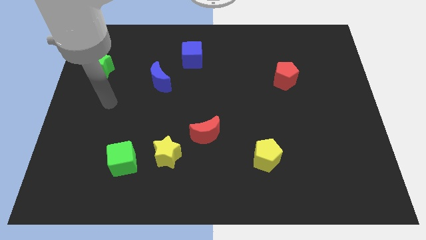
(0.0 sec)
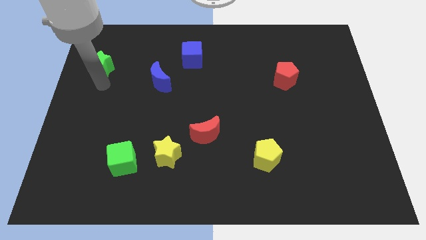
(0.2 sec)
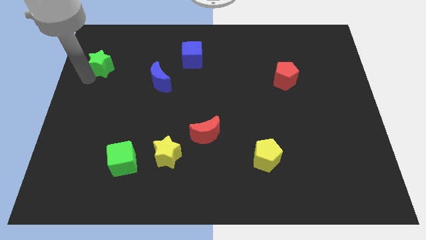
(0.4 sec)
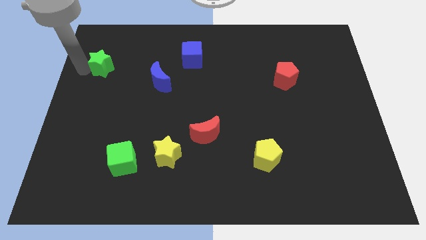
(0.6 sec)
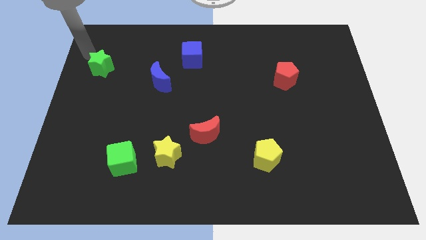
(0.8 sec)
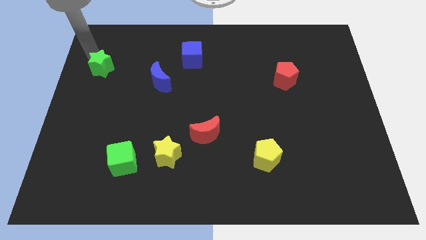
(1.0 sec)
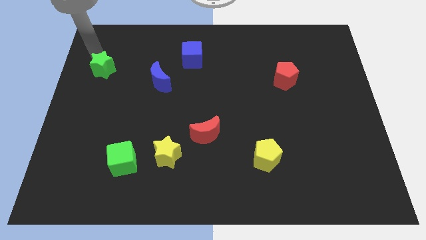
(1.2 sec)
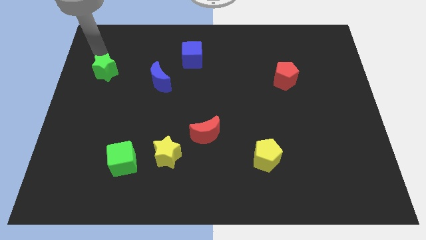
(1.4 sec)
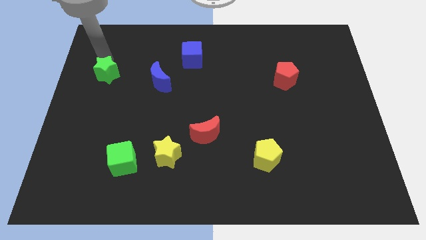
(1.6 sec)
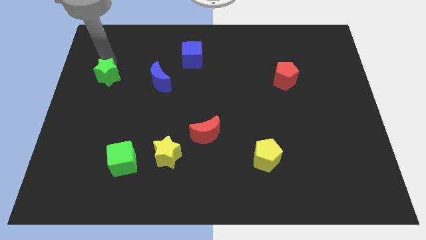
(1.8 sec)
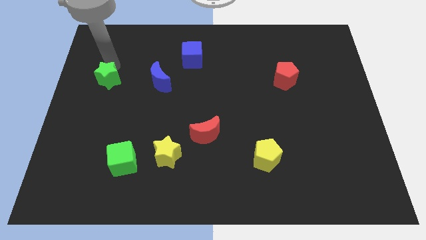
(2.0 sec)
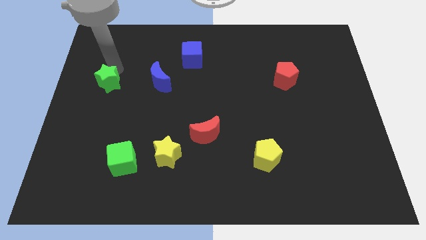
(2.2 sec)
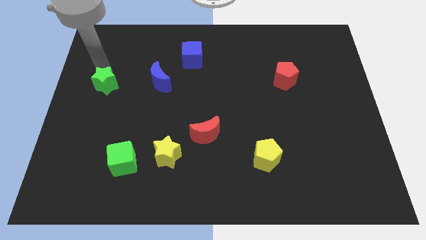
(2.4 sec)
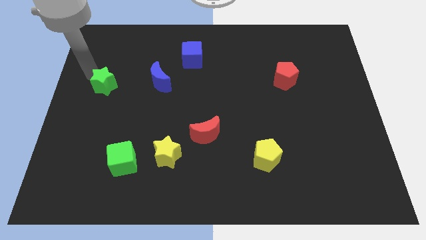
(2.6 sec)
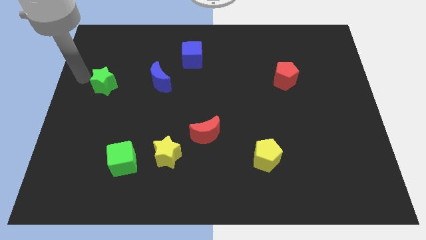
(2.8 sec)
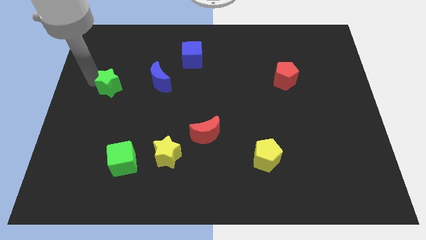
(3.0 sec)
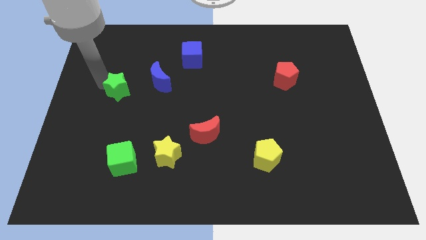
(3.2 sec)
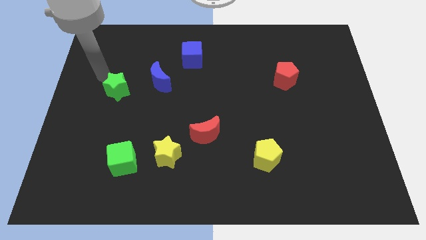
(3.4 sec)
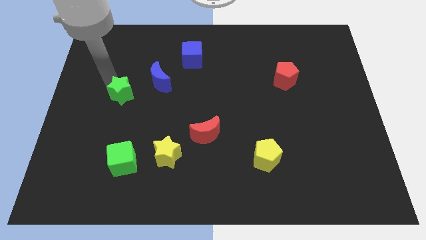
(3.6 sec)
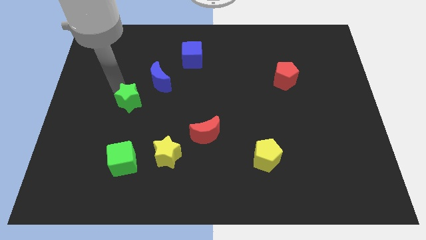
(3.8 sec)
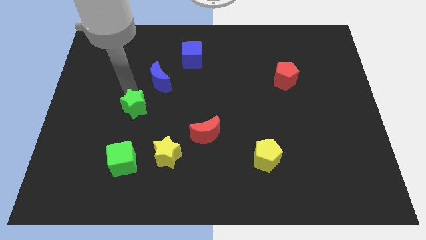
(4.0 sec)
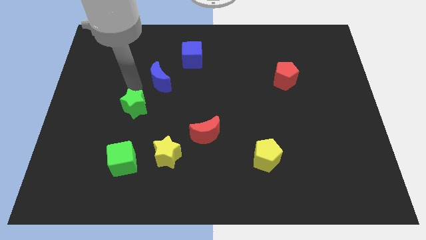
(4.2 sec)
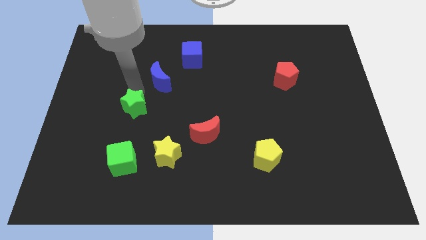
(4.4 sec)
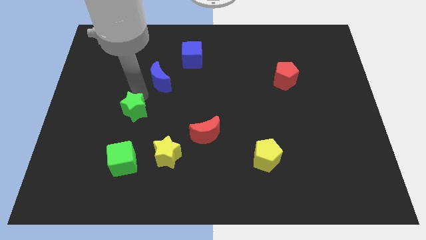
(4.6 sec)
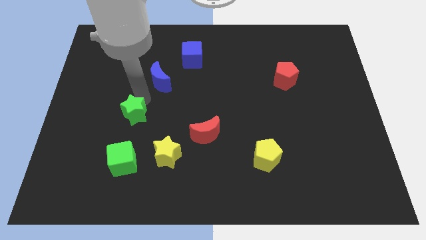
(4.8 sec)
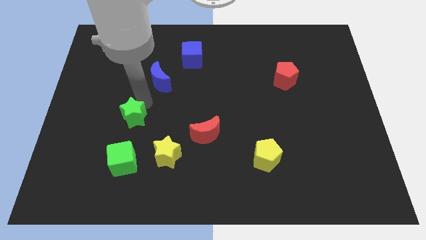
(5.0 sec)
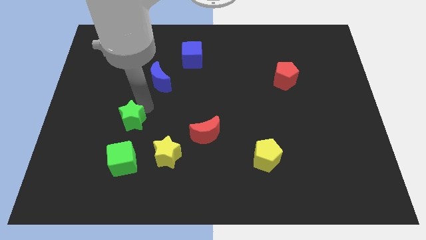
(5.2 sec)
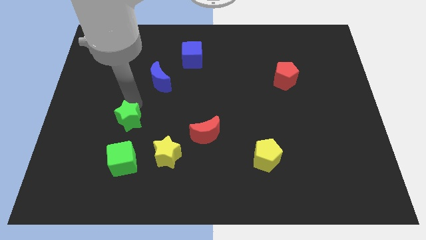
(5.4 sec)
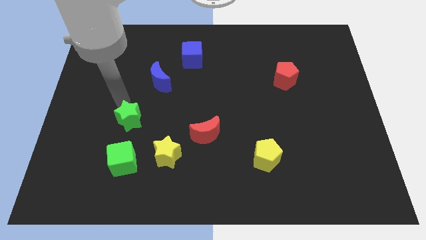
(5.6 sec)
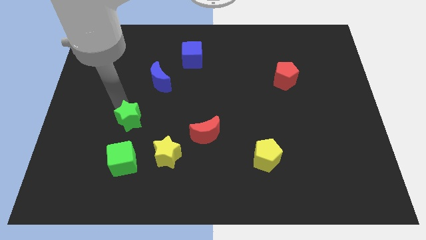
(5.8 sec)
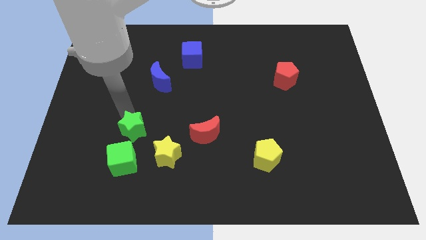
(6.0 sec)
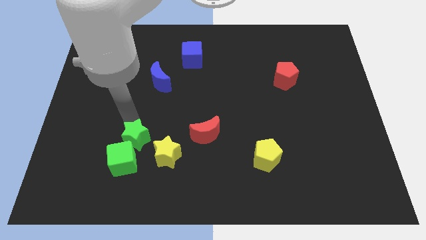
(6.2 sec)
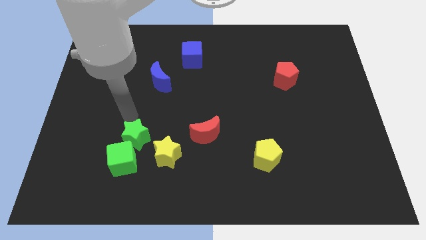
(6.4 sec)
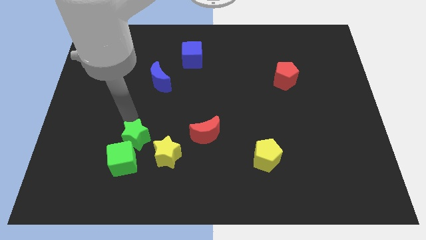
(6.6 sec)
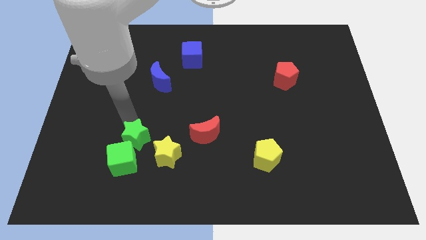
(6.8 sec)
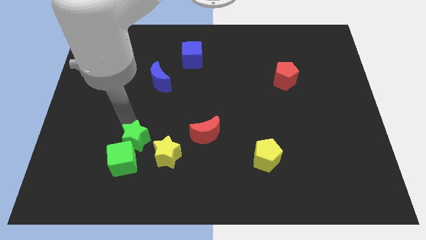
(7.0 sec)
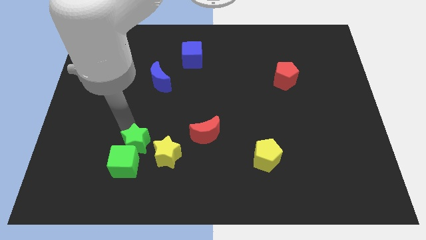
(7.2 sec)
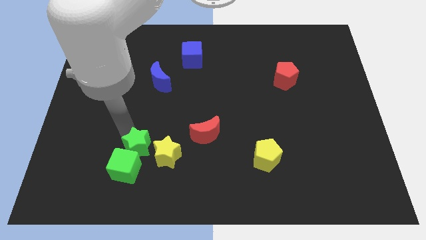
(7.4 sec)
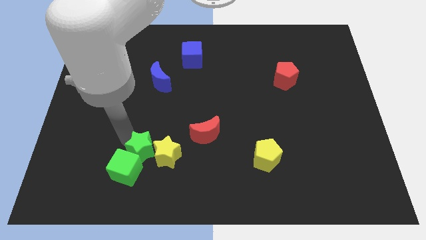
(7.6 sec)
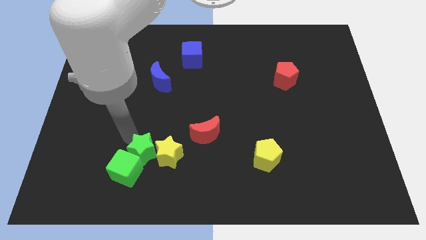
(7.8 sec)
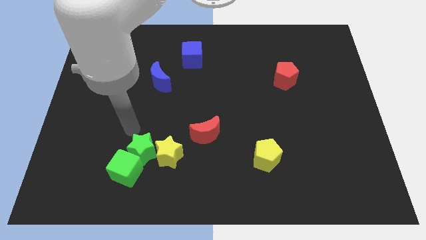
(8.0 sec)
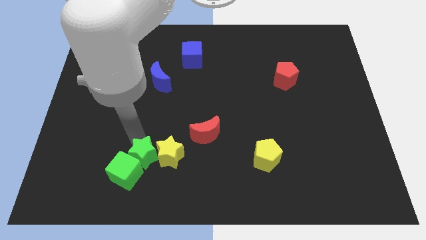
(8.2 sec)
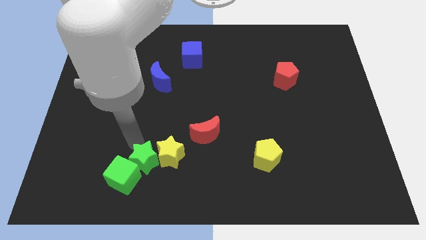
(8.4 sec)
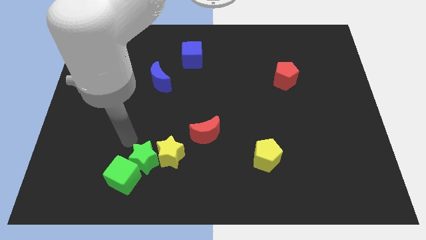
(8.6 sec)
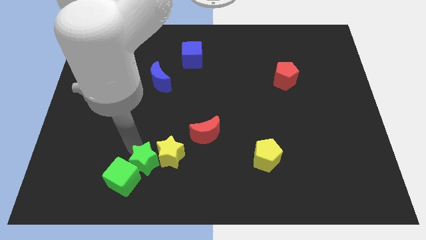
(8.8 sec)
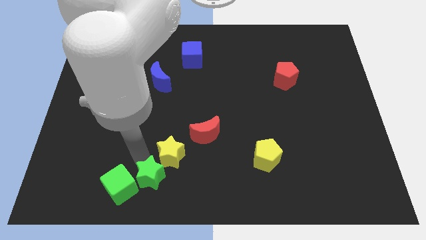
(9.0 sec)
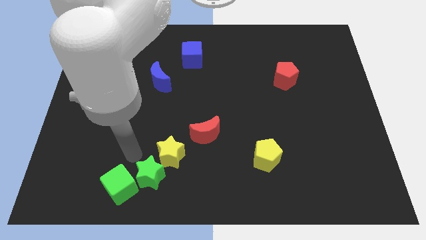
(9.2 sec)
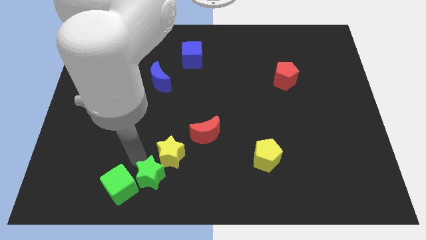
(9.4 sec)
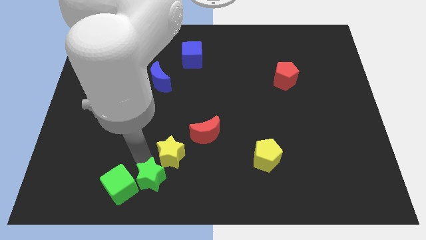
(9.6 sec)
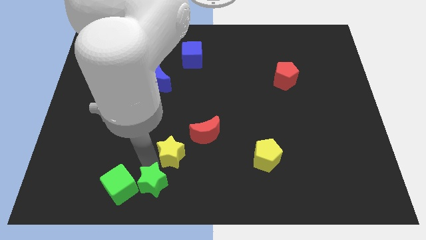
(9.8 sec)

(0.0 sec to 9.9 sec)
push the green star to the bottom

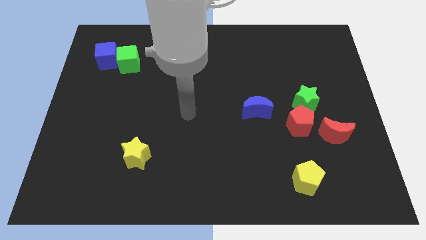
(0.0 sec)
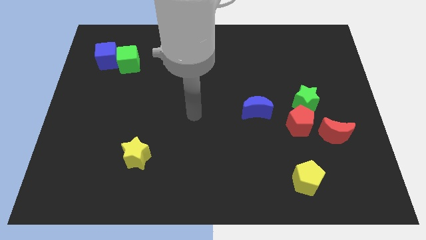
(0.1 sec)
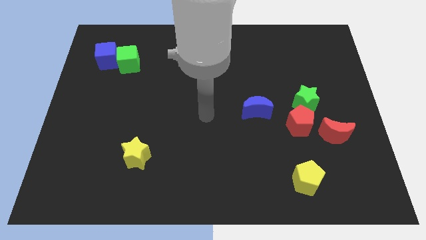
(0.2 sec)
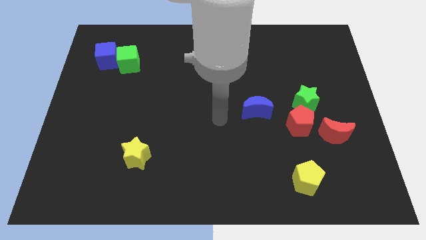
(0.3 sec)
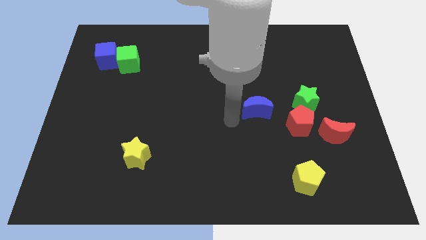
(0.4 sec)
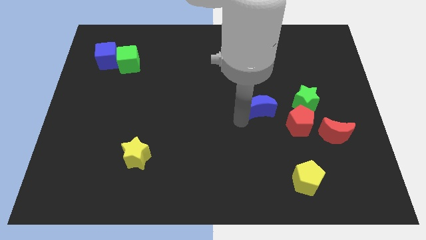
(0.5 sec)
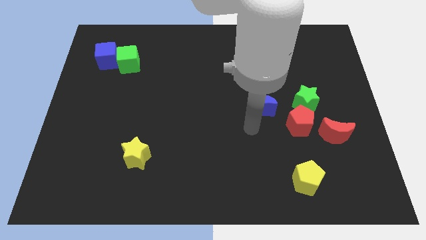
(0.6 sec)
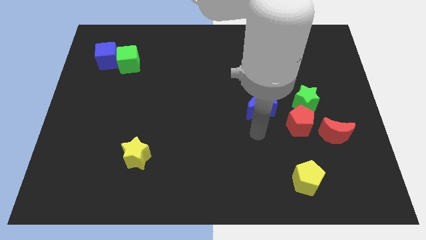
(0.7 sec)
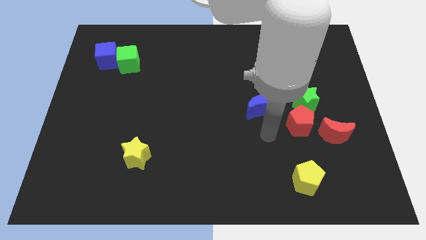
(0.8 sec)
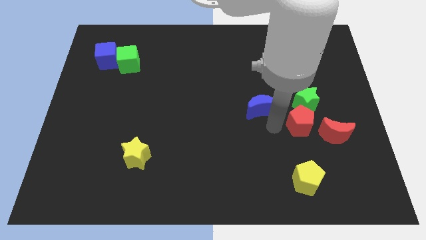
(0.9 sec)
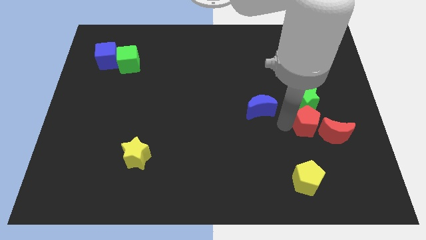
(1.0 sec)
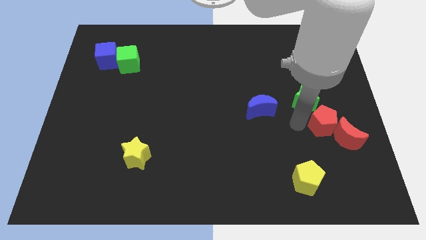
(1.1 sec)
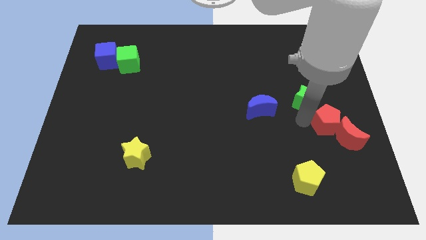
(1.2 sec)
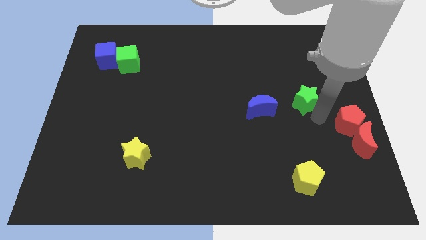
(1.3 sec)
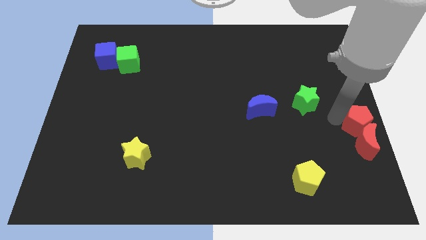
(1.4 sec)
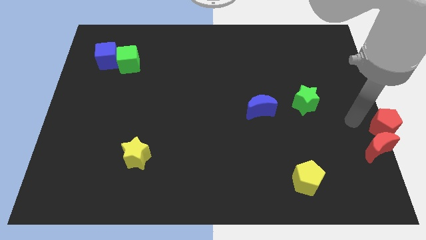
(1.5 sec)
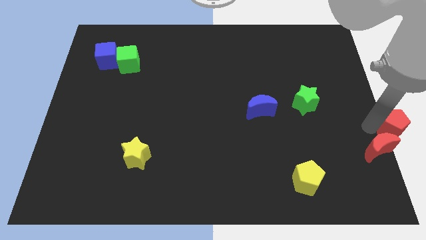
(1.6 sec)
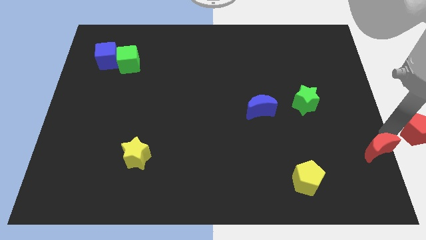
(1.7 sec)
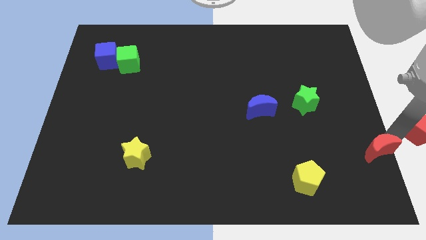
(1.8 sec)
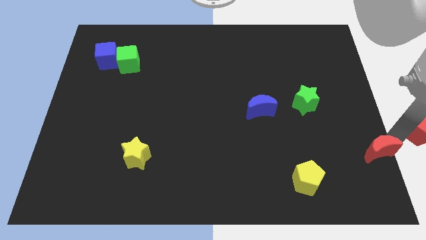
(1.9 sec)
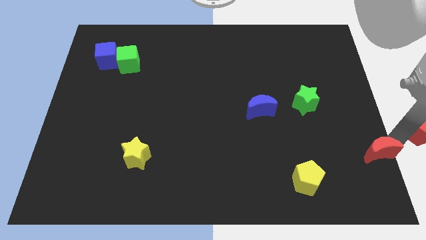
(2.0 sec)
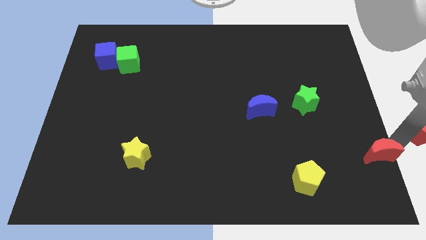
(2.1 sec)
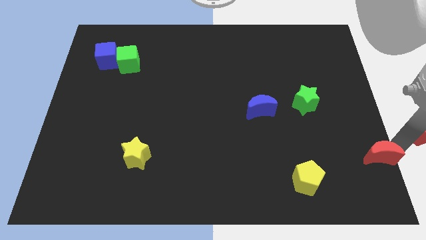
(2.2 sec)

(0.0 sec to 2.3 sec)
push the red moon to the bottom right of the board
